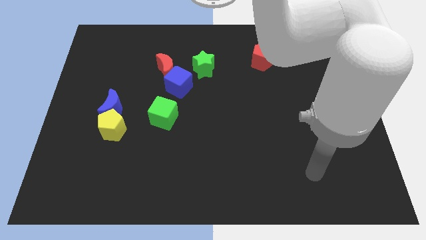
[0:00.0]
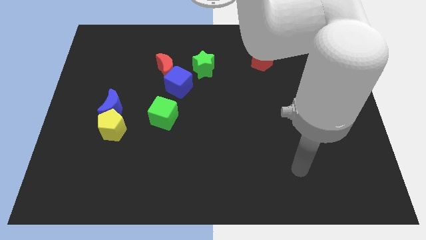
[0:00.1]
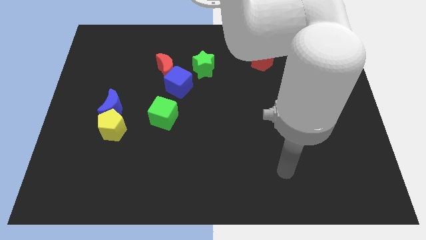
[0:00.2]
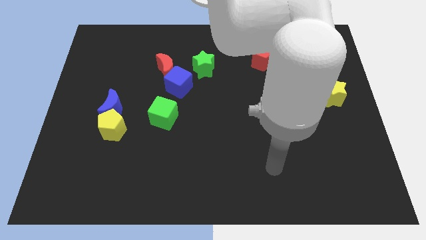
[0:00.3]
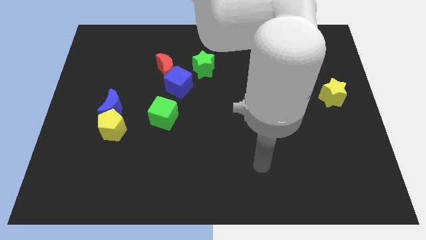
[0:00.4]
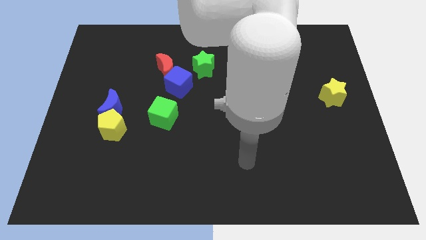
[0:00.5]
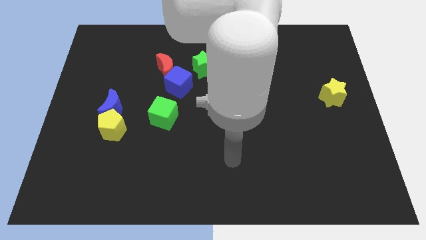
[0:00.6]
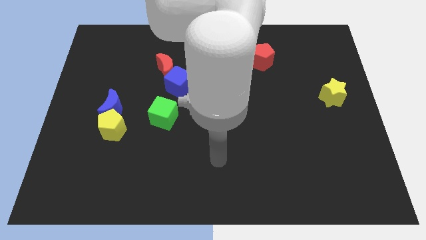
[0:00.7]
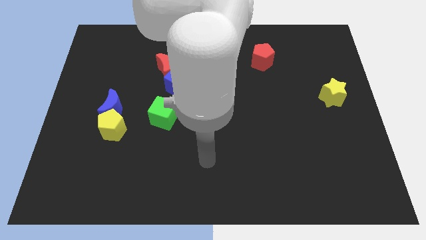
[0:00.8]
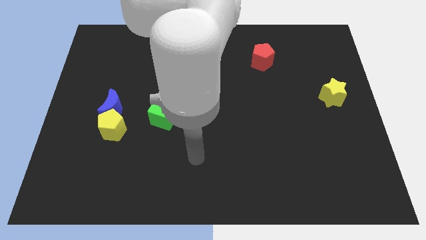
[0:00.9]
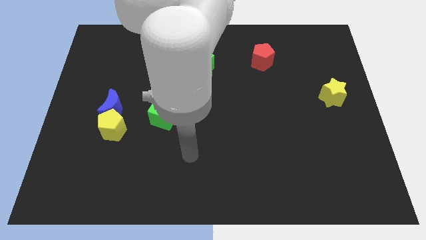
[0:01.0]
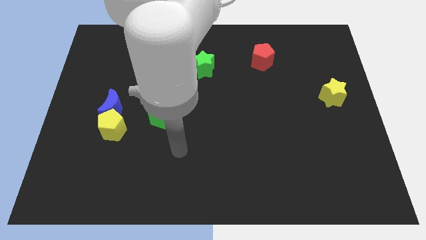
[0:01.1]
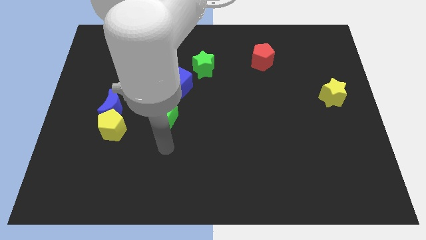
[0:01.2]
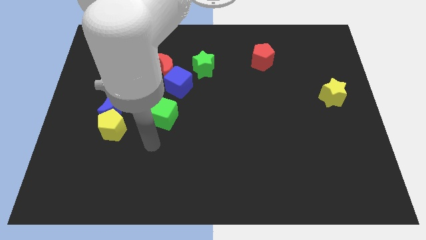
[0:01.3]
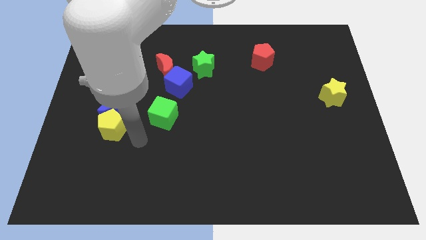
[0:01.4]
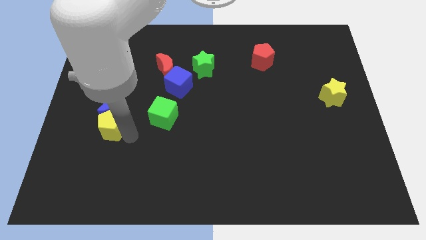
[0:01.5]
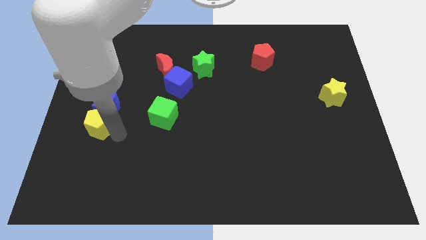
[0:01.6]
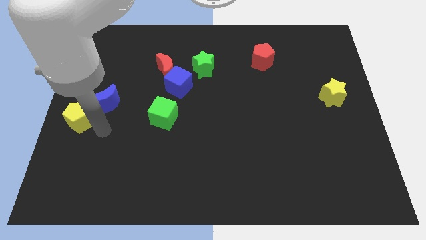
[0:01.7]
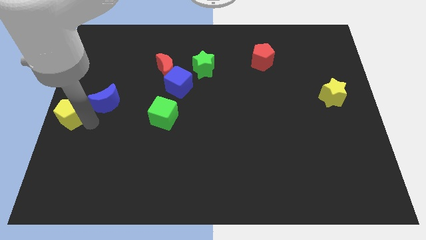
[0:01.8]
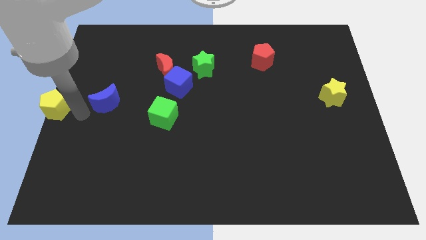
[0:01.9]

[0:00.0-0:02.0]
separate the blue moon from the yellow pentagon

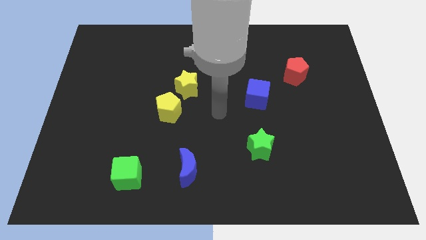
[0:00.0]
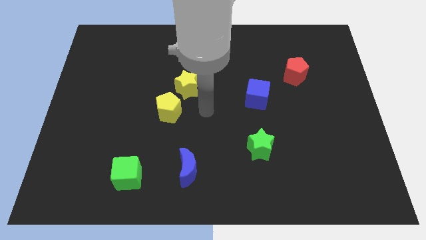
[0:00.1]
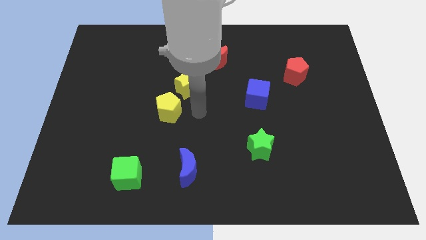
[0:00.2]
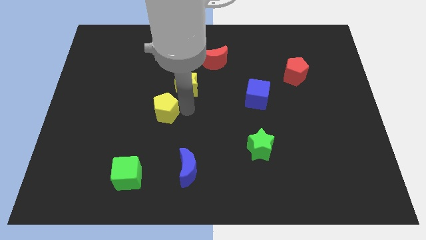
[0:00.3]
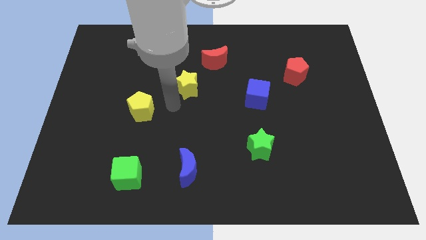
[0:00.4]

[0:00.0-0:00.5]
move the yellow star away from the yellow pentagon

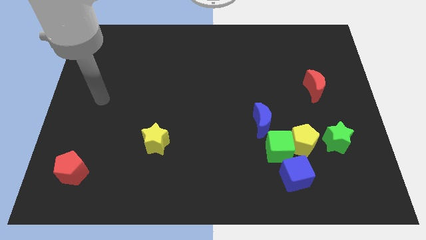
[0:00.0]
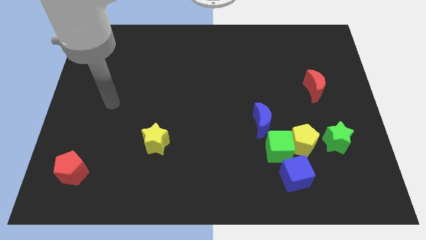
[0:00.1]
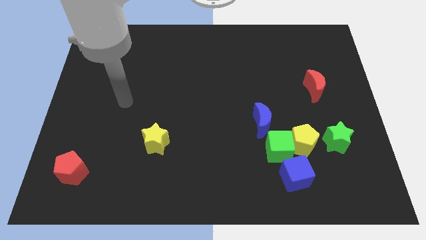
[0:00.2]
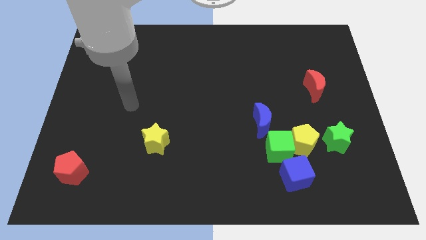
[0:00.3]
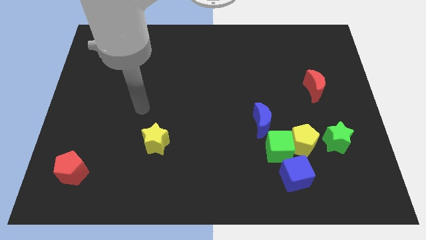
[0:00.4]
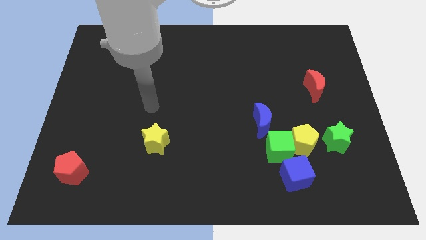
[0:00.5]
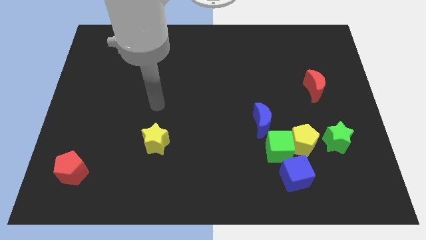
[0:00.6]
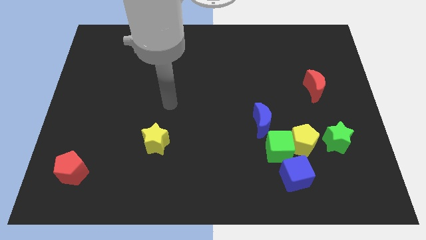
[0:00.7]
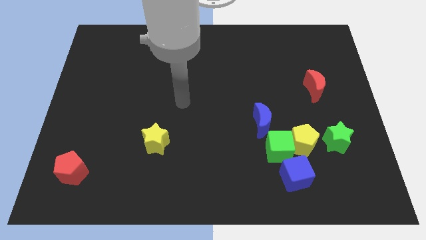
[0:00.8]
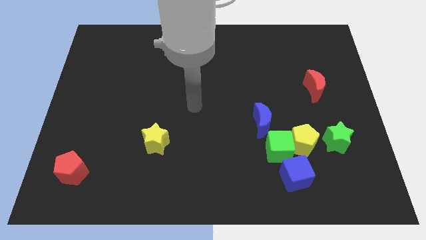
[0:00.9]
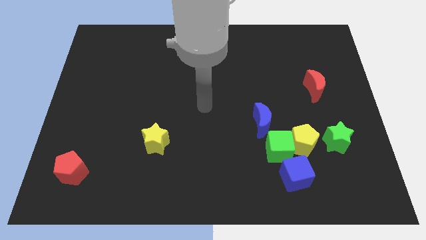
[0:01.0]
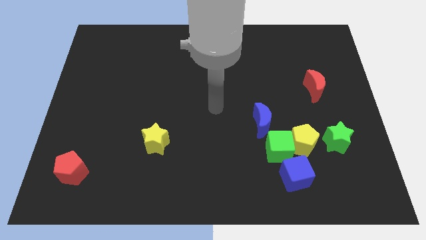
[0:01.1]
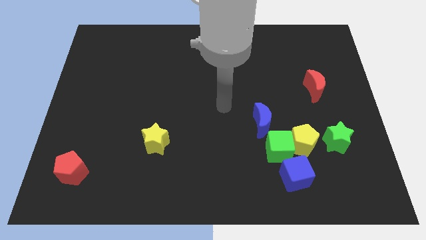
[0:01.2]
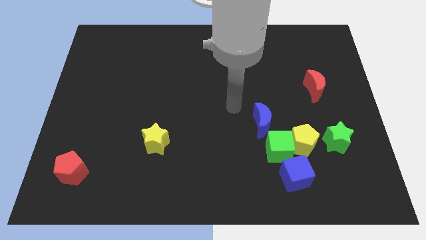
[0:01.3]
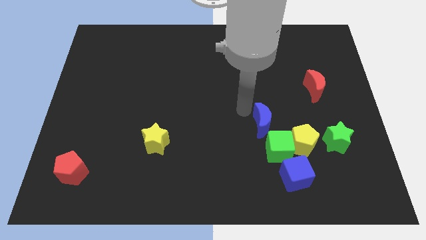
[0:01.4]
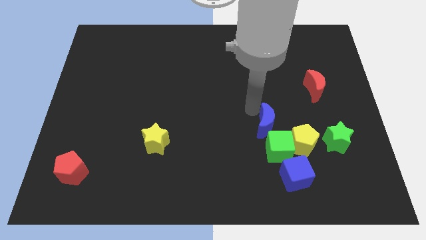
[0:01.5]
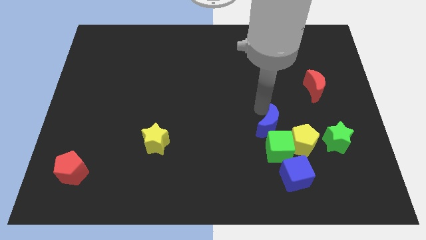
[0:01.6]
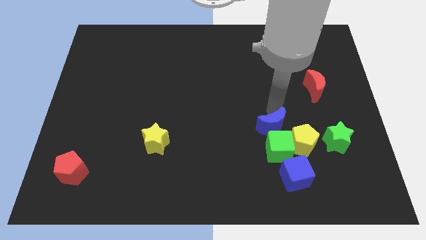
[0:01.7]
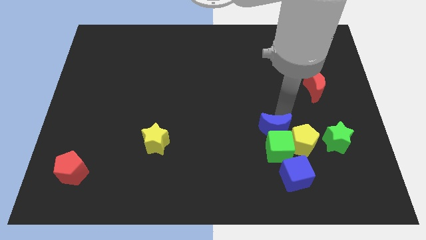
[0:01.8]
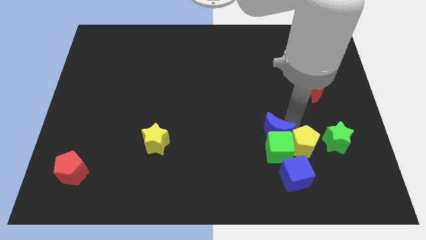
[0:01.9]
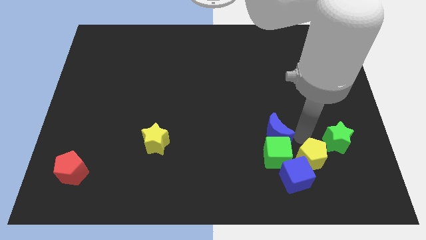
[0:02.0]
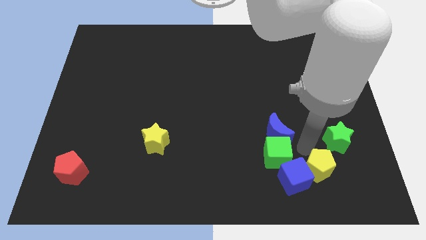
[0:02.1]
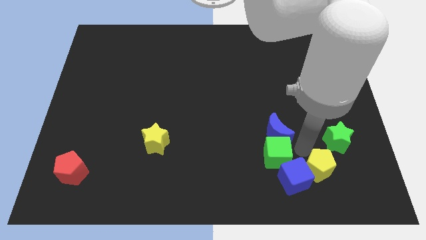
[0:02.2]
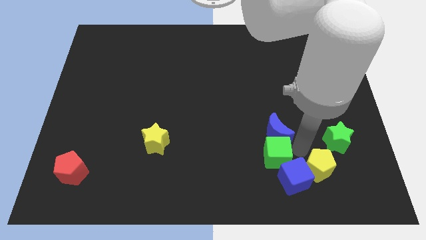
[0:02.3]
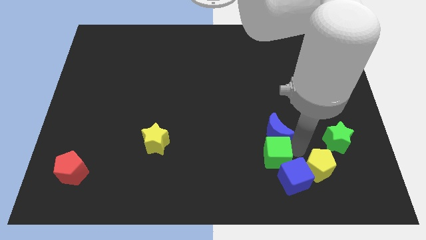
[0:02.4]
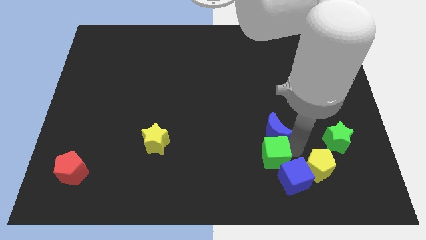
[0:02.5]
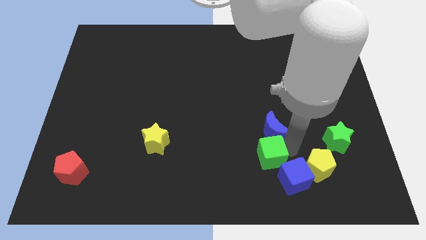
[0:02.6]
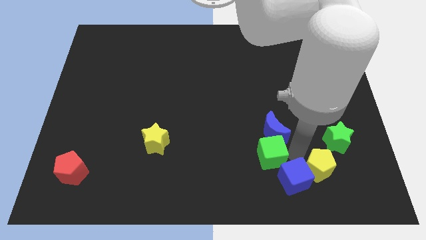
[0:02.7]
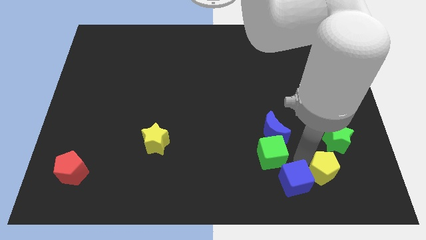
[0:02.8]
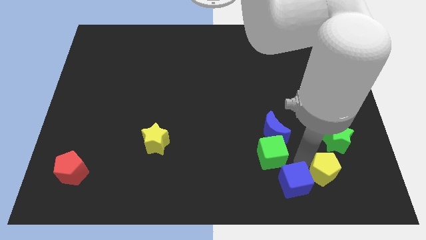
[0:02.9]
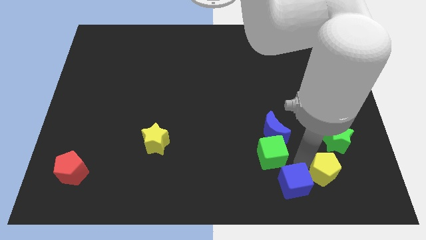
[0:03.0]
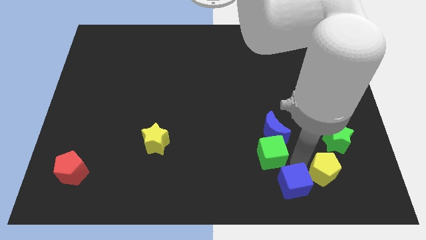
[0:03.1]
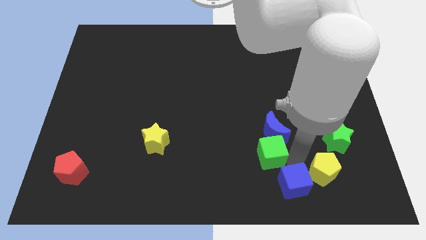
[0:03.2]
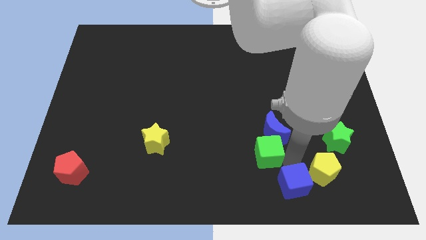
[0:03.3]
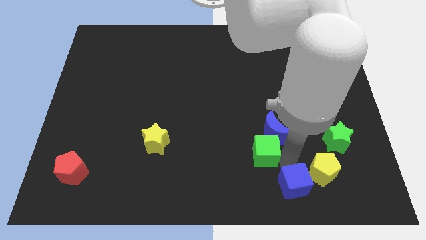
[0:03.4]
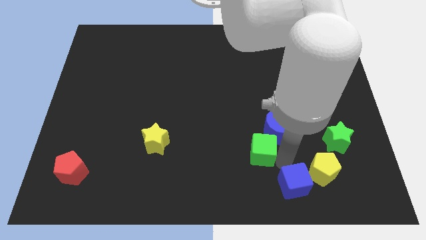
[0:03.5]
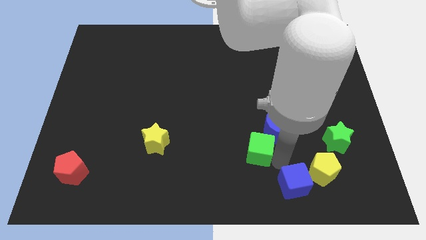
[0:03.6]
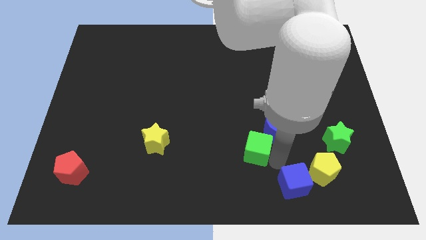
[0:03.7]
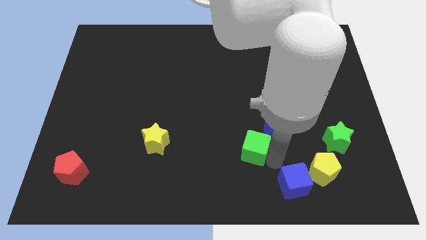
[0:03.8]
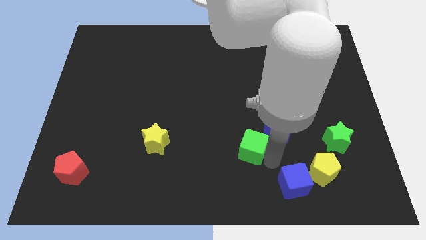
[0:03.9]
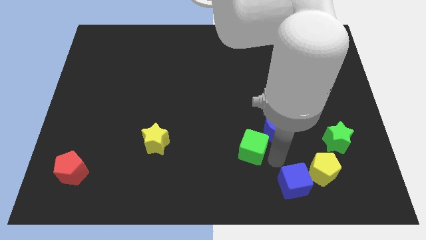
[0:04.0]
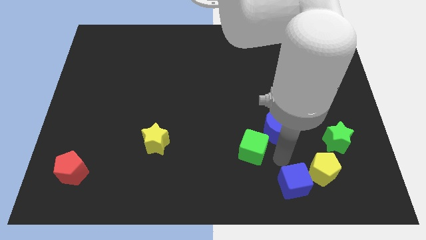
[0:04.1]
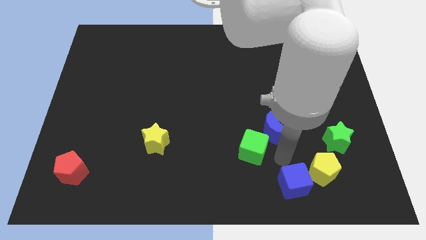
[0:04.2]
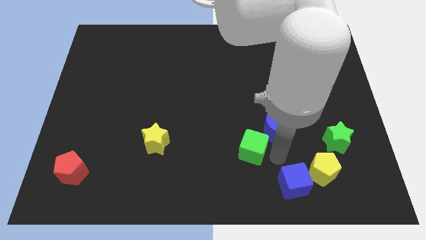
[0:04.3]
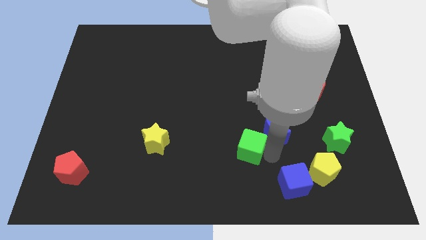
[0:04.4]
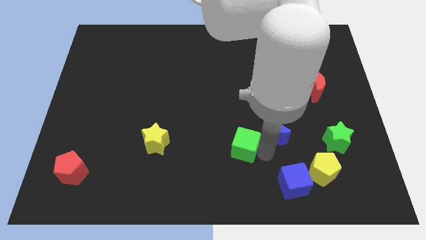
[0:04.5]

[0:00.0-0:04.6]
separate the green cube from the group of blocks

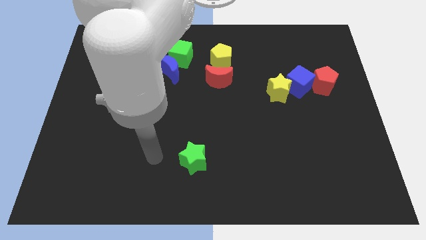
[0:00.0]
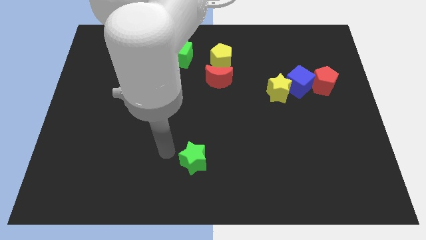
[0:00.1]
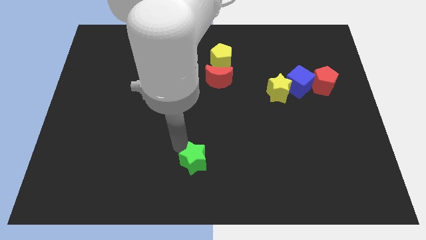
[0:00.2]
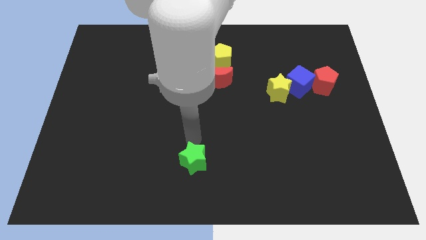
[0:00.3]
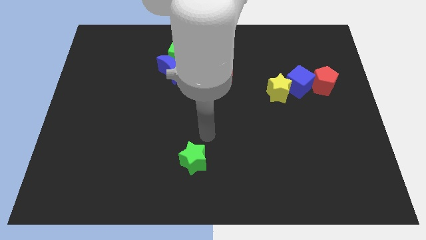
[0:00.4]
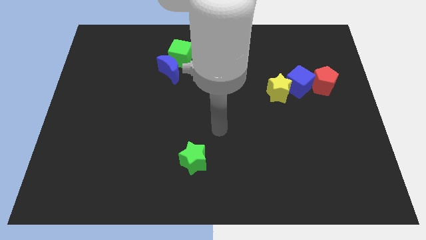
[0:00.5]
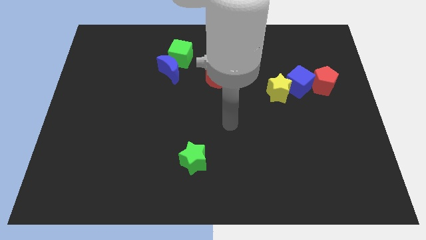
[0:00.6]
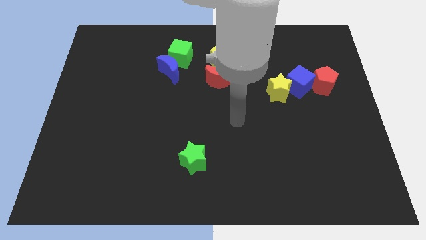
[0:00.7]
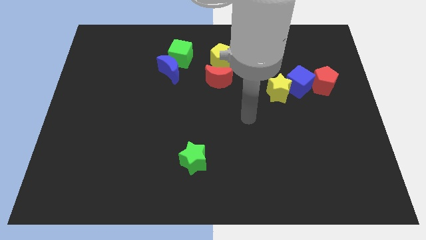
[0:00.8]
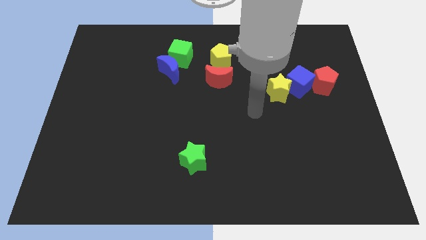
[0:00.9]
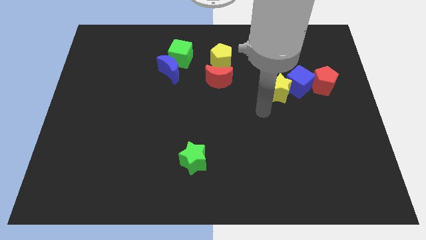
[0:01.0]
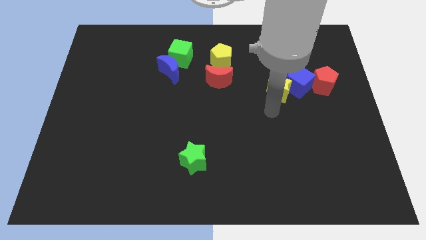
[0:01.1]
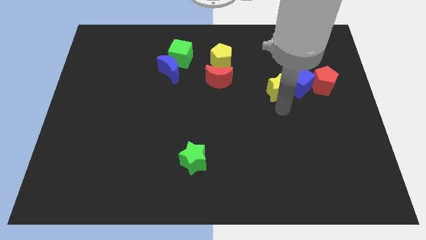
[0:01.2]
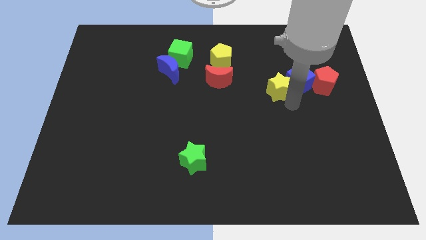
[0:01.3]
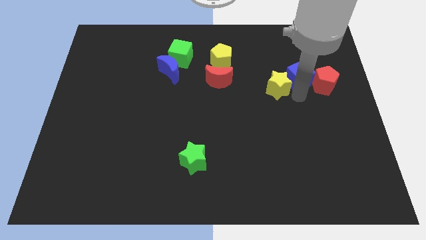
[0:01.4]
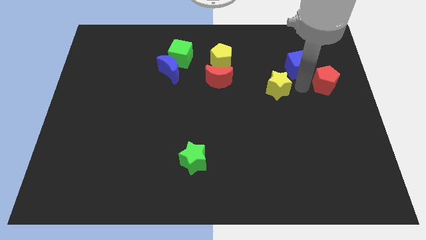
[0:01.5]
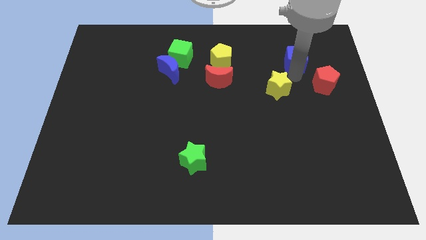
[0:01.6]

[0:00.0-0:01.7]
move the yellow star away from the blue cube

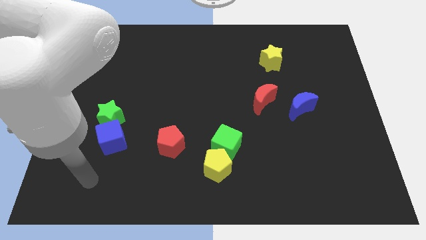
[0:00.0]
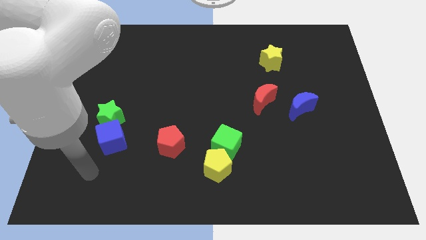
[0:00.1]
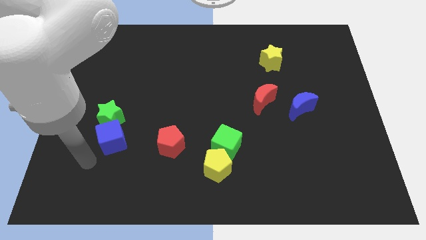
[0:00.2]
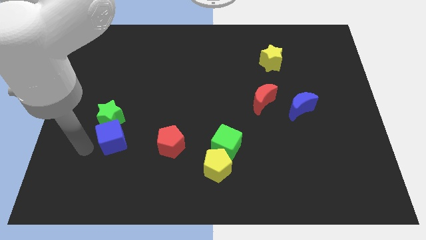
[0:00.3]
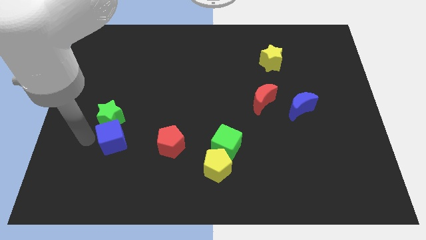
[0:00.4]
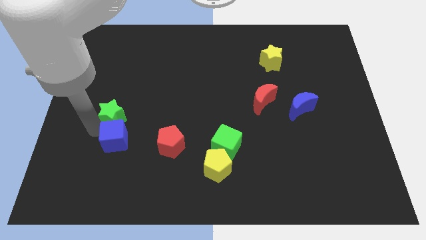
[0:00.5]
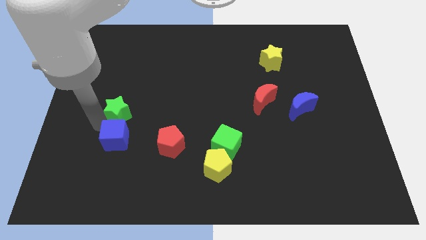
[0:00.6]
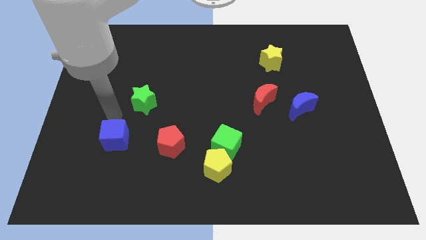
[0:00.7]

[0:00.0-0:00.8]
pull the blue cube apart from the green star
